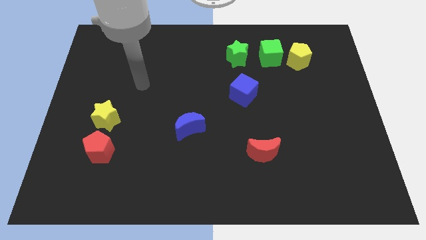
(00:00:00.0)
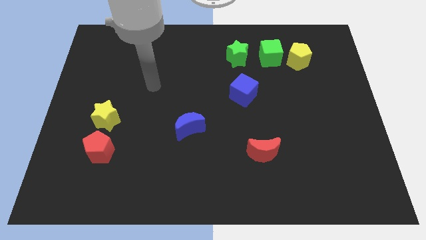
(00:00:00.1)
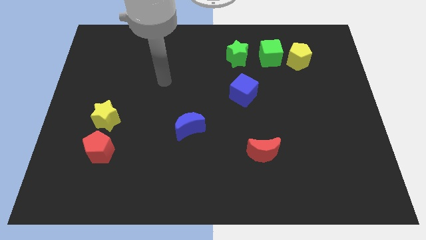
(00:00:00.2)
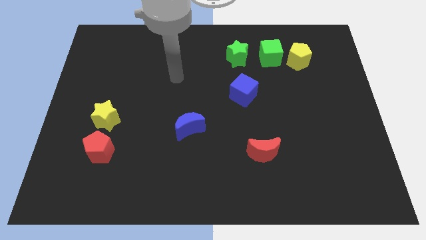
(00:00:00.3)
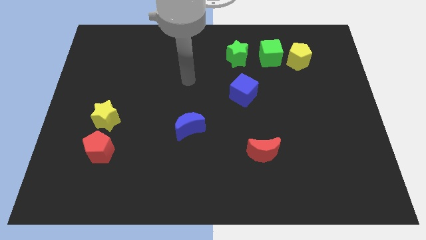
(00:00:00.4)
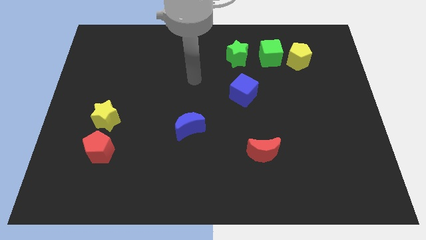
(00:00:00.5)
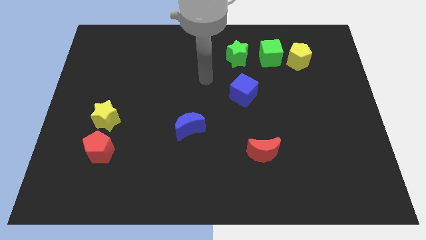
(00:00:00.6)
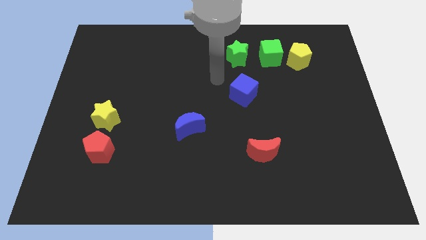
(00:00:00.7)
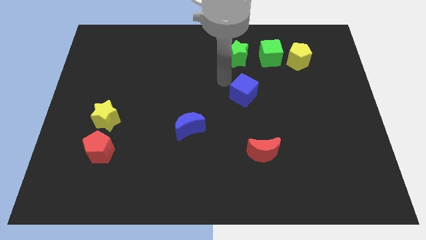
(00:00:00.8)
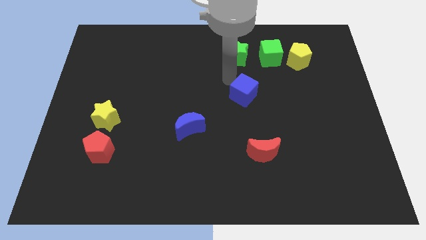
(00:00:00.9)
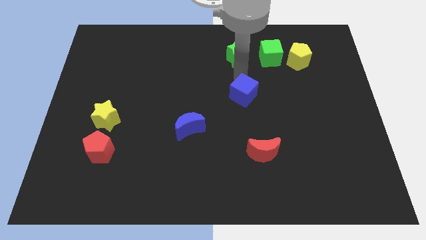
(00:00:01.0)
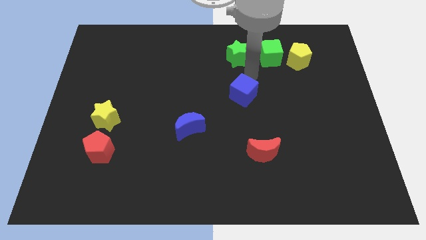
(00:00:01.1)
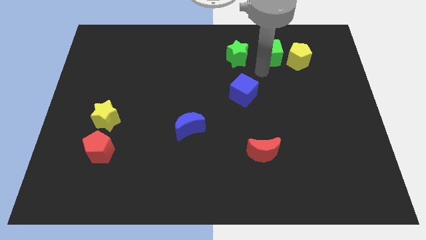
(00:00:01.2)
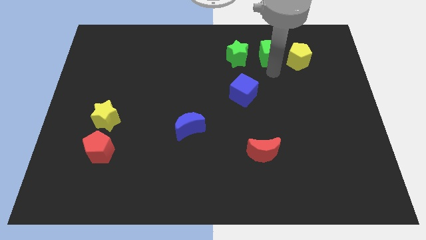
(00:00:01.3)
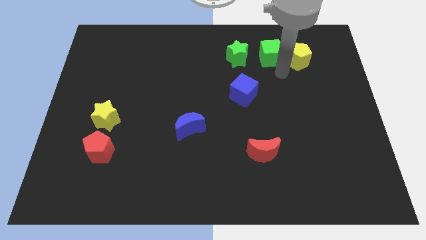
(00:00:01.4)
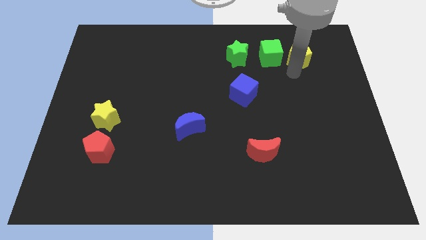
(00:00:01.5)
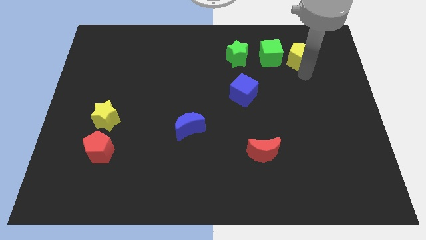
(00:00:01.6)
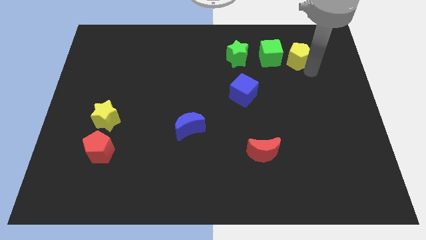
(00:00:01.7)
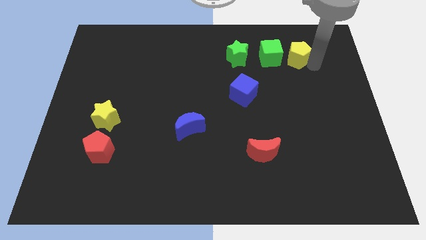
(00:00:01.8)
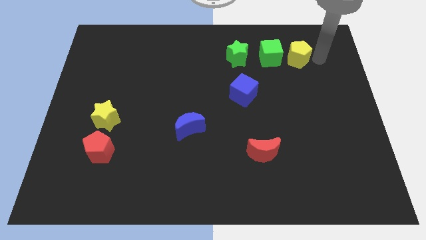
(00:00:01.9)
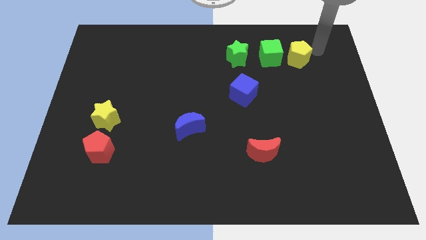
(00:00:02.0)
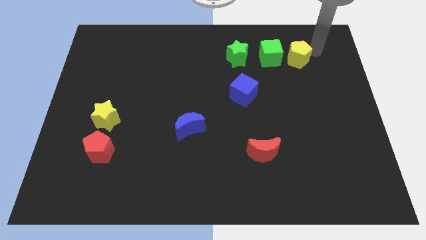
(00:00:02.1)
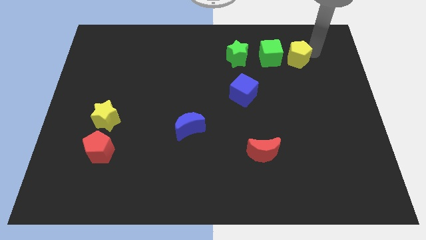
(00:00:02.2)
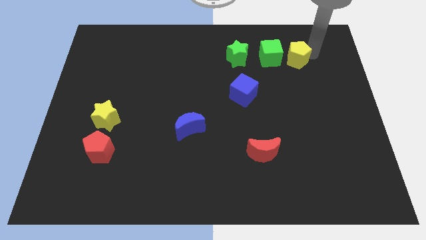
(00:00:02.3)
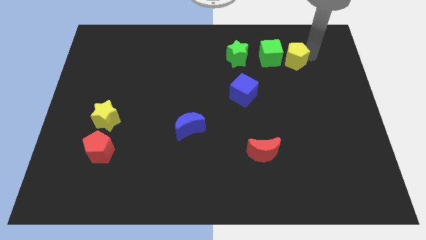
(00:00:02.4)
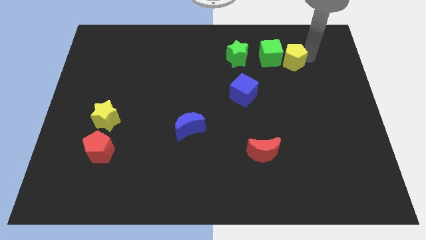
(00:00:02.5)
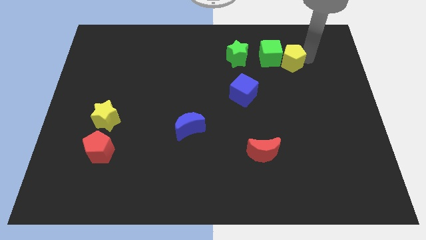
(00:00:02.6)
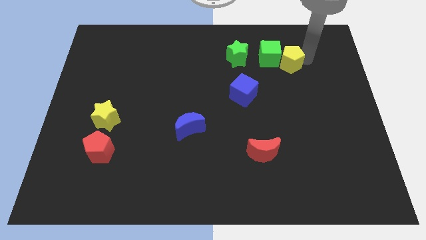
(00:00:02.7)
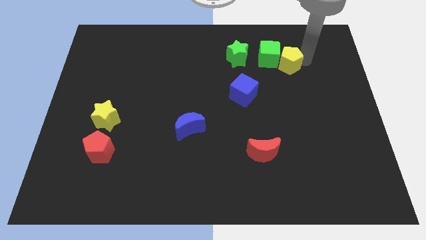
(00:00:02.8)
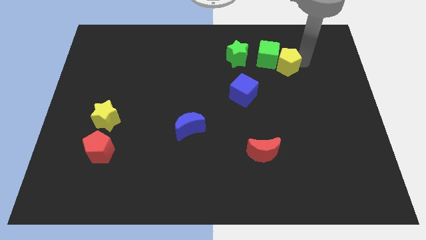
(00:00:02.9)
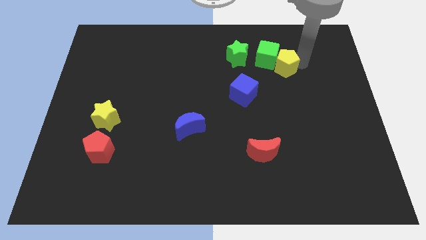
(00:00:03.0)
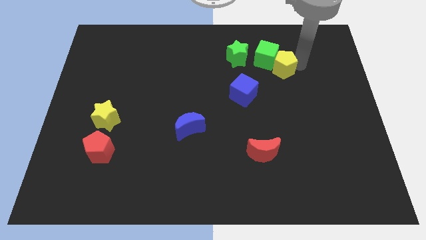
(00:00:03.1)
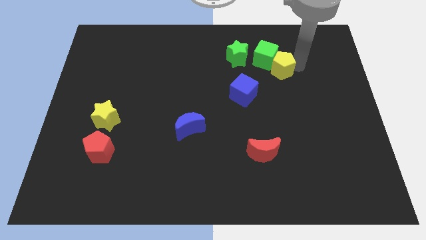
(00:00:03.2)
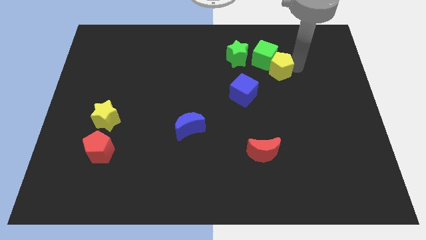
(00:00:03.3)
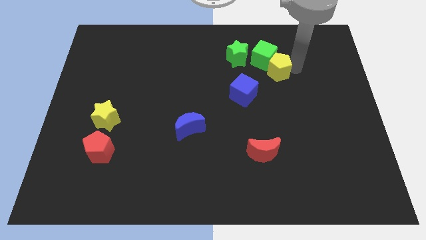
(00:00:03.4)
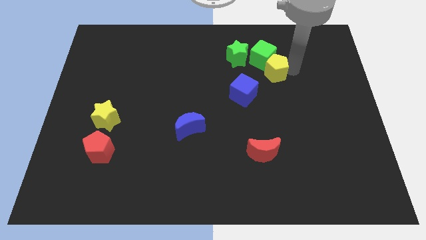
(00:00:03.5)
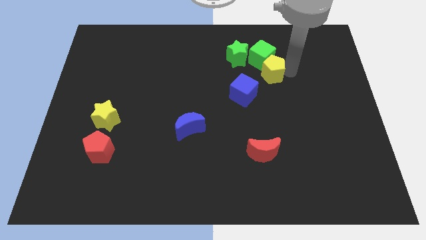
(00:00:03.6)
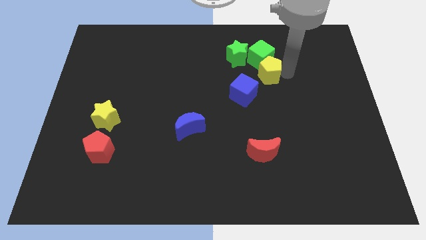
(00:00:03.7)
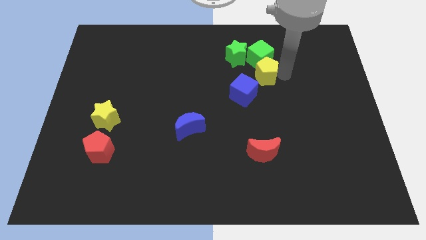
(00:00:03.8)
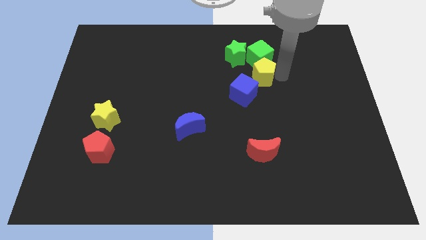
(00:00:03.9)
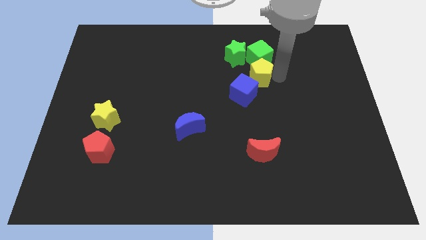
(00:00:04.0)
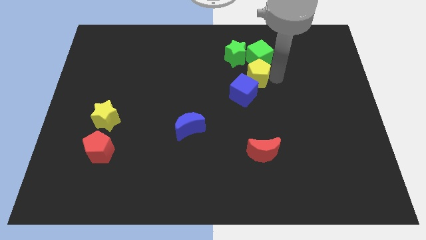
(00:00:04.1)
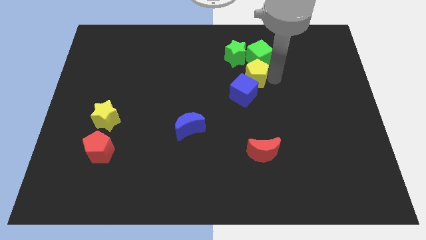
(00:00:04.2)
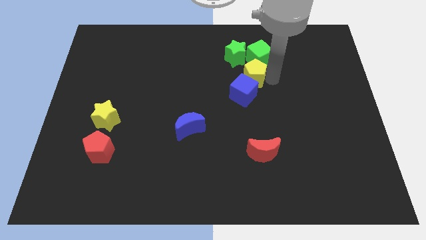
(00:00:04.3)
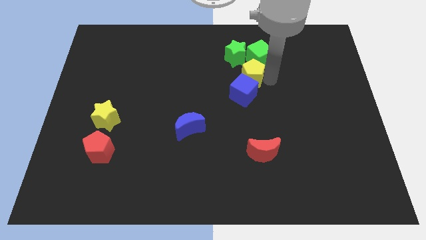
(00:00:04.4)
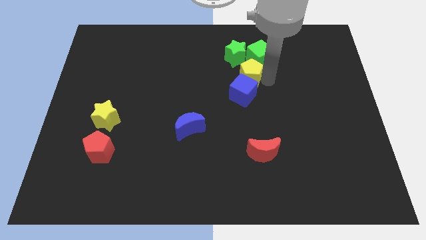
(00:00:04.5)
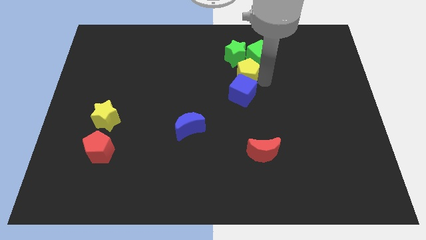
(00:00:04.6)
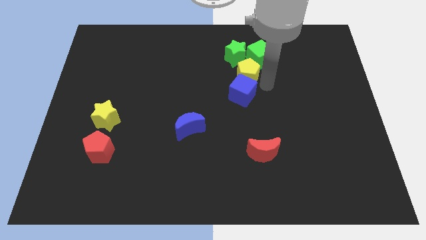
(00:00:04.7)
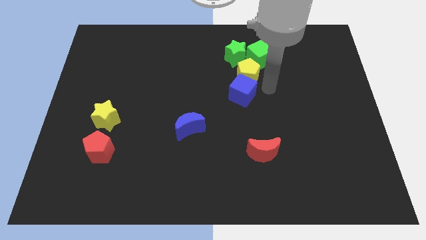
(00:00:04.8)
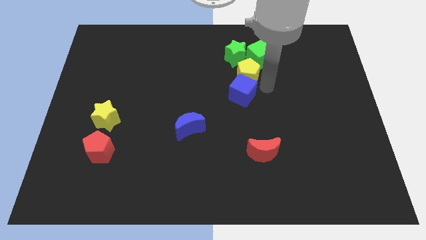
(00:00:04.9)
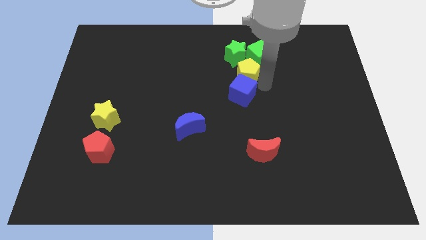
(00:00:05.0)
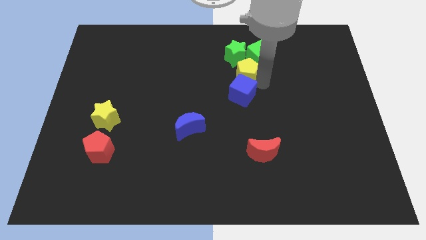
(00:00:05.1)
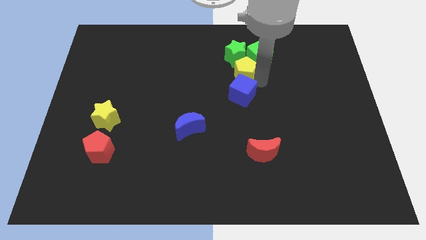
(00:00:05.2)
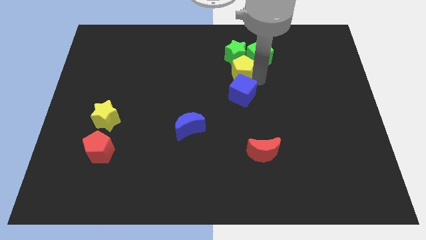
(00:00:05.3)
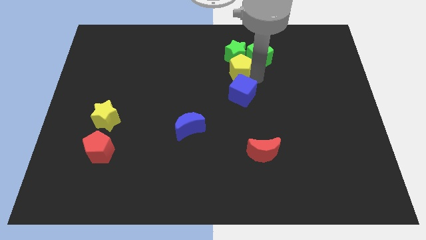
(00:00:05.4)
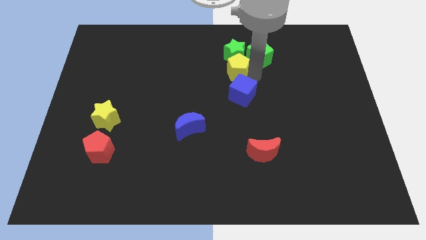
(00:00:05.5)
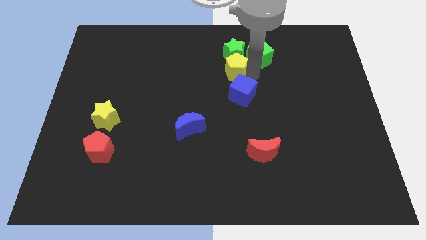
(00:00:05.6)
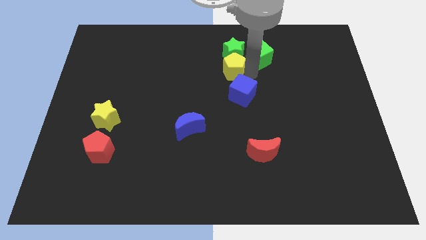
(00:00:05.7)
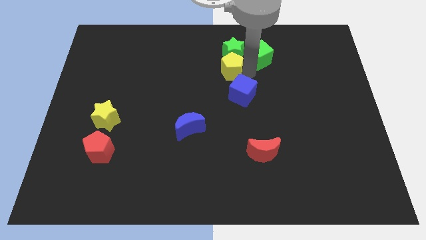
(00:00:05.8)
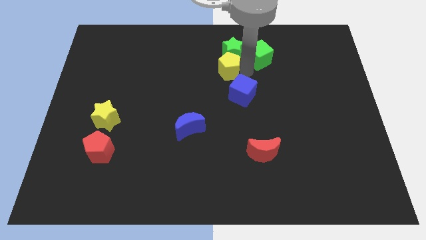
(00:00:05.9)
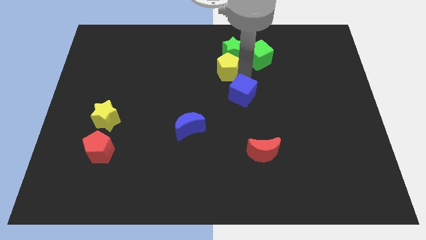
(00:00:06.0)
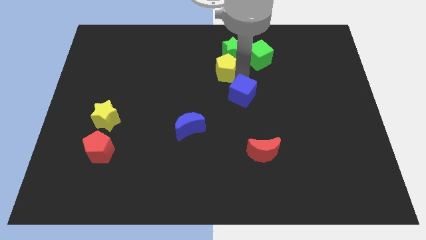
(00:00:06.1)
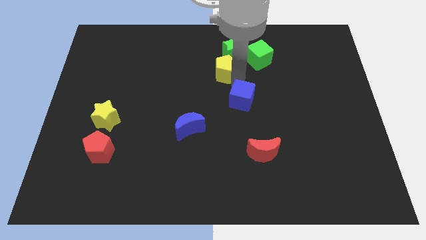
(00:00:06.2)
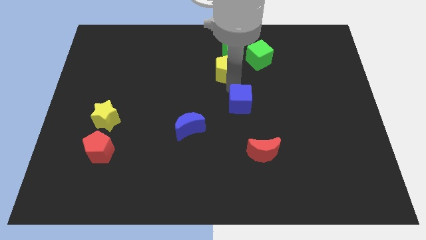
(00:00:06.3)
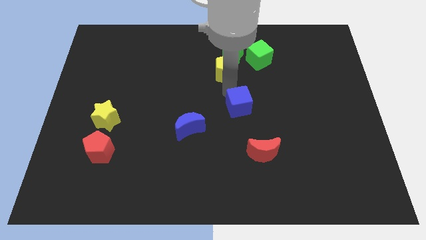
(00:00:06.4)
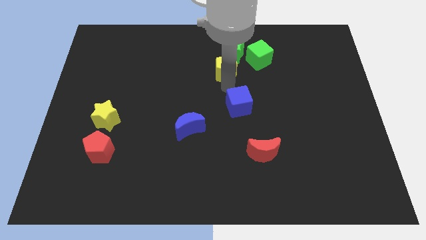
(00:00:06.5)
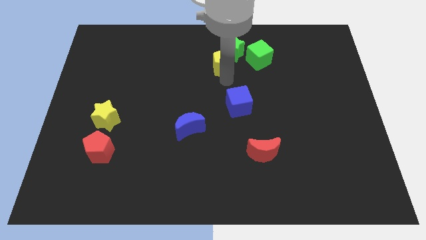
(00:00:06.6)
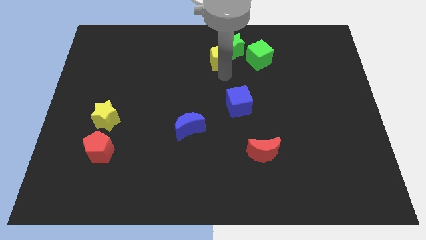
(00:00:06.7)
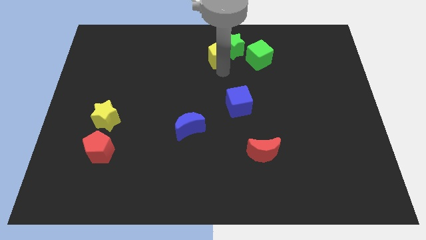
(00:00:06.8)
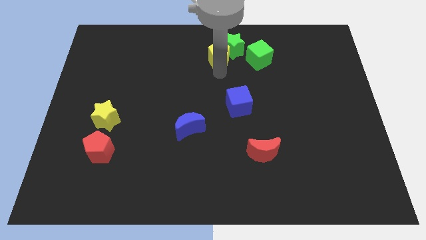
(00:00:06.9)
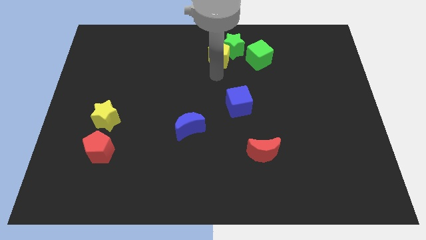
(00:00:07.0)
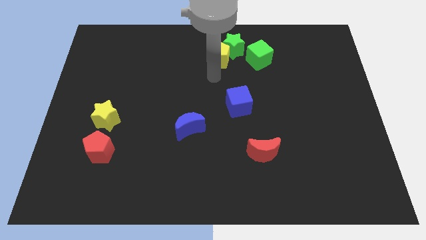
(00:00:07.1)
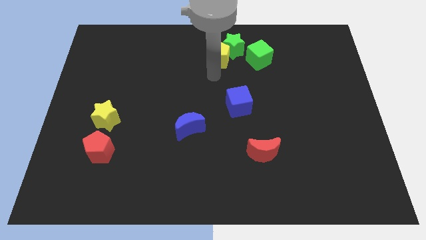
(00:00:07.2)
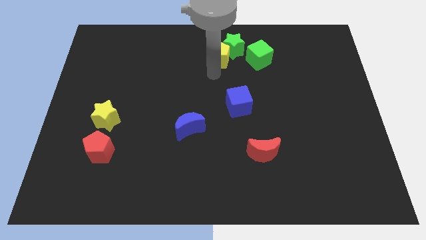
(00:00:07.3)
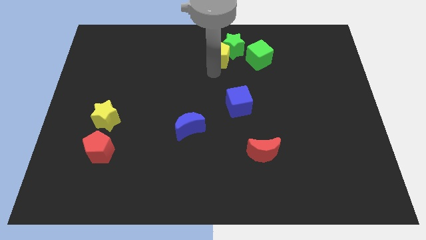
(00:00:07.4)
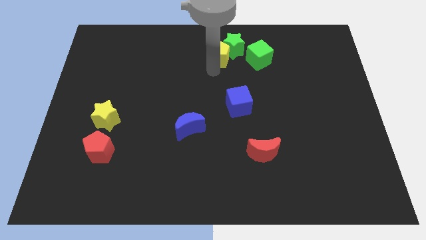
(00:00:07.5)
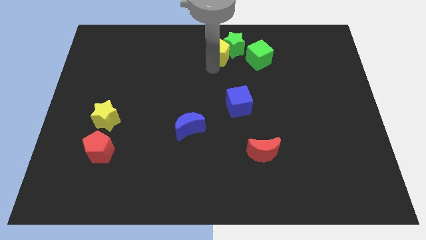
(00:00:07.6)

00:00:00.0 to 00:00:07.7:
push the yellow pentagon to the top side
